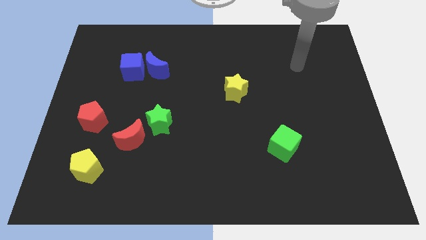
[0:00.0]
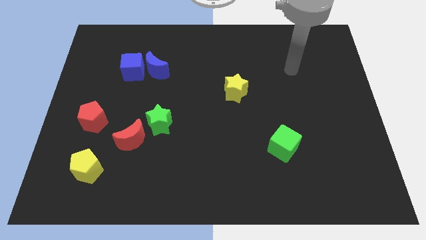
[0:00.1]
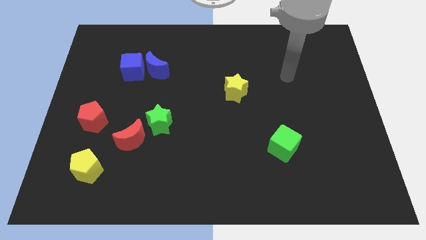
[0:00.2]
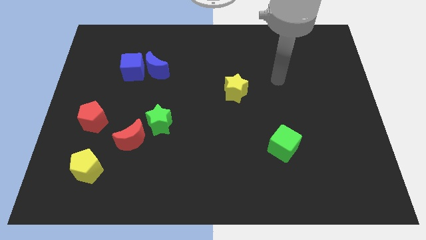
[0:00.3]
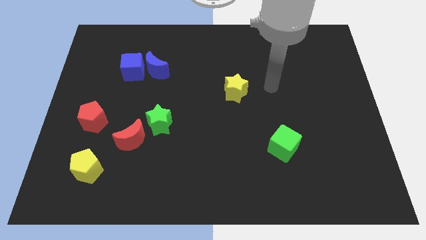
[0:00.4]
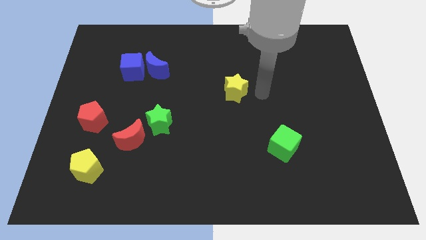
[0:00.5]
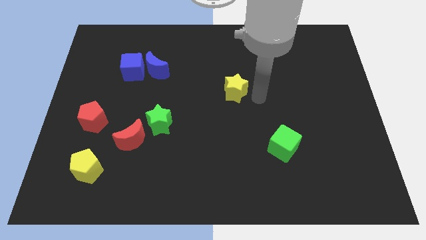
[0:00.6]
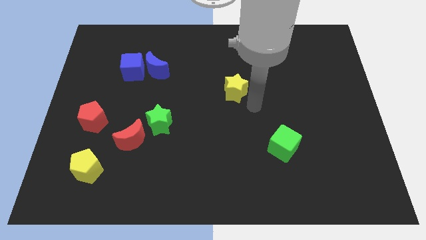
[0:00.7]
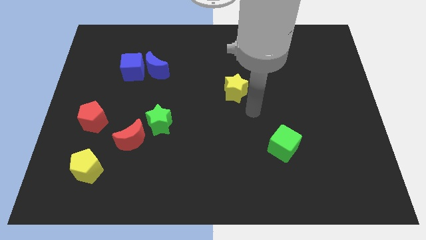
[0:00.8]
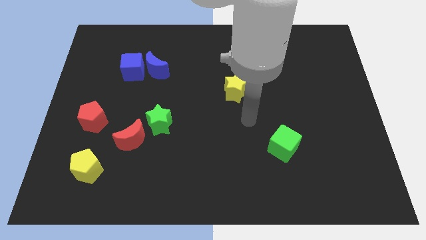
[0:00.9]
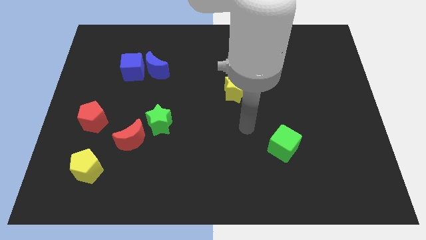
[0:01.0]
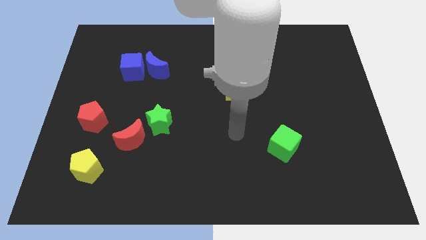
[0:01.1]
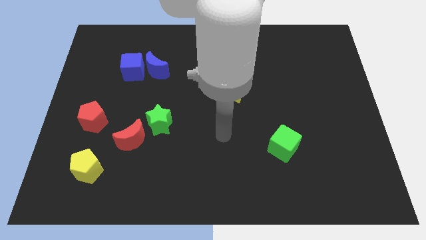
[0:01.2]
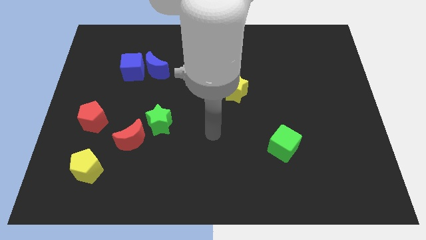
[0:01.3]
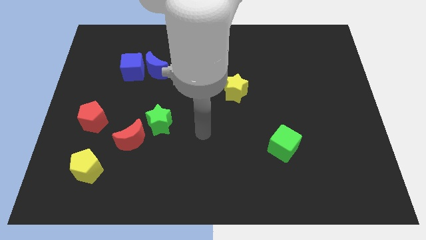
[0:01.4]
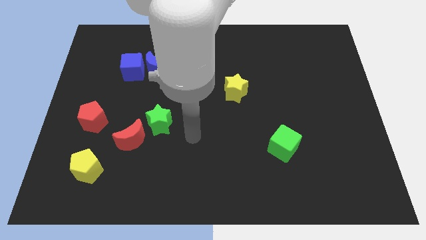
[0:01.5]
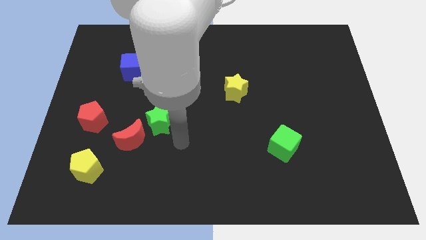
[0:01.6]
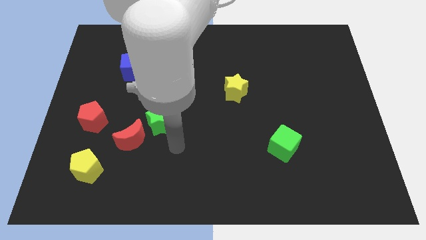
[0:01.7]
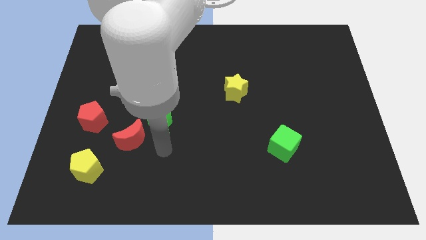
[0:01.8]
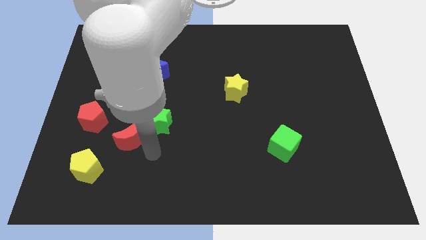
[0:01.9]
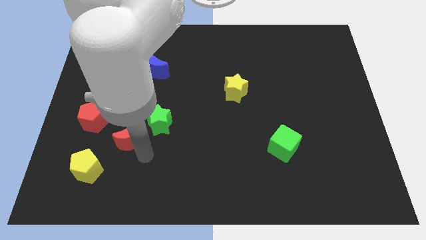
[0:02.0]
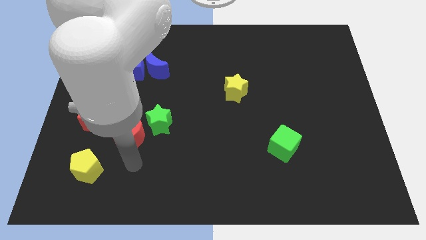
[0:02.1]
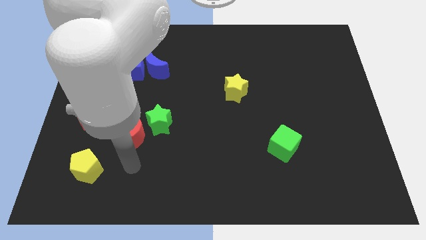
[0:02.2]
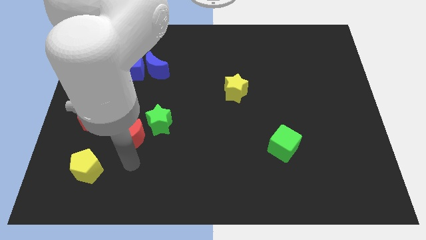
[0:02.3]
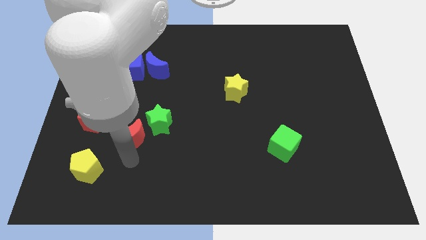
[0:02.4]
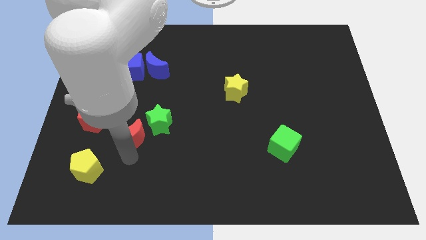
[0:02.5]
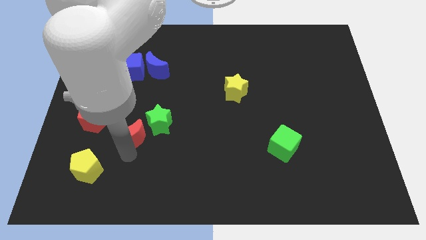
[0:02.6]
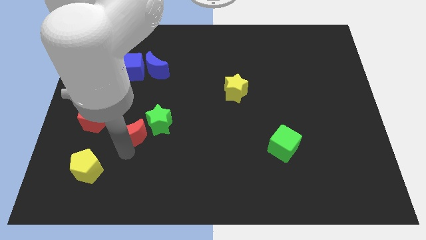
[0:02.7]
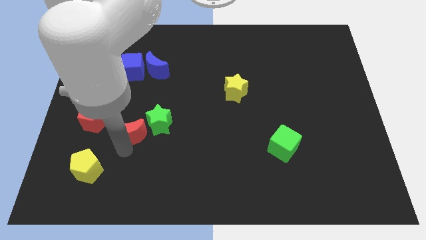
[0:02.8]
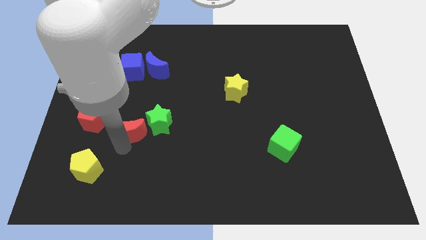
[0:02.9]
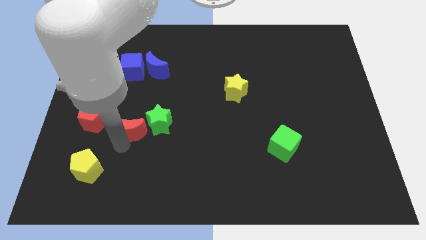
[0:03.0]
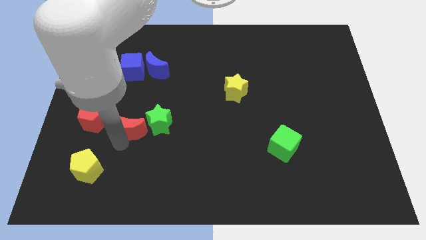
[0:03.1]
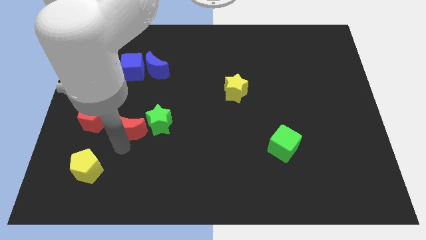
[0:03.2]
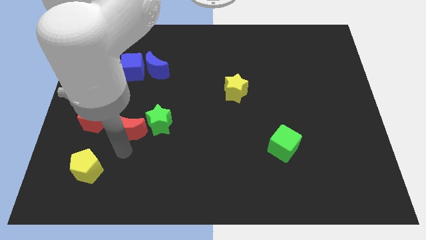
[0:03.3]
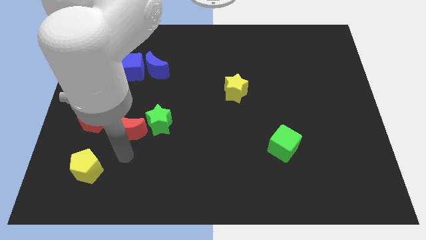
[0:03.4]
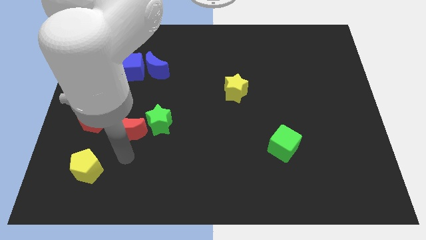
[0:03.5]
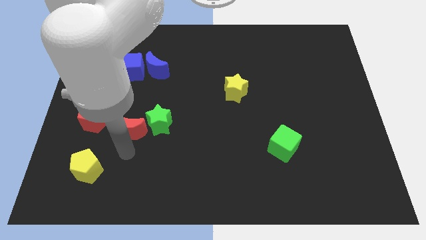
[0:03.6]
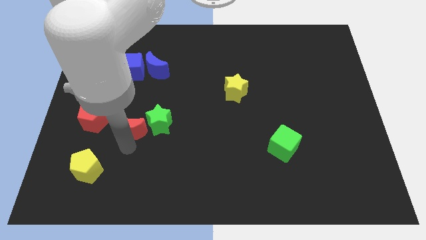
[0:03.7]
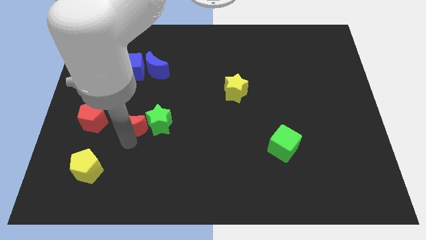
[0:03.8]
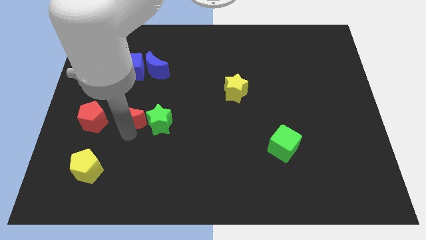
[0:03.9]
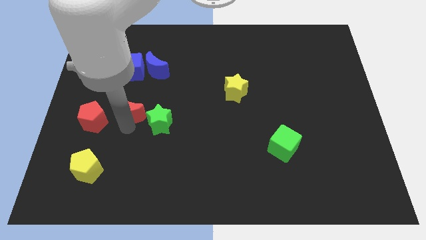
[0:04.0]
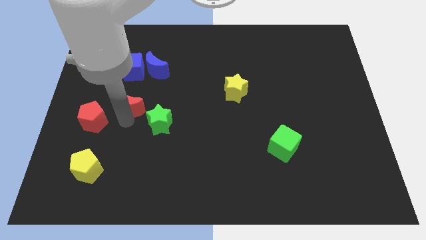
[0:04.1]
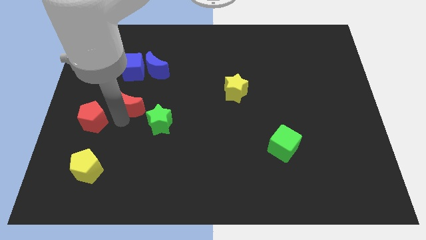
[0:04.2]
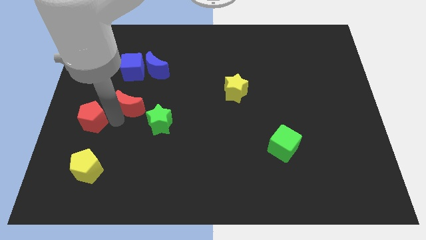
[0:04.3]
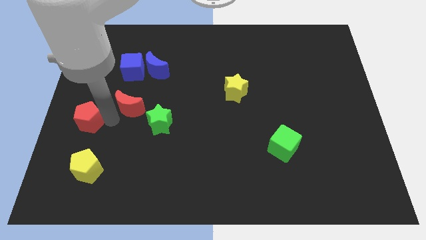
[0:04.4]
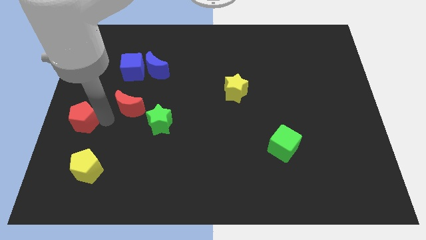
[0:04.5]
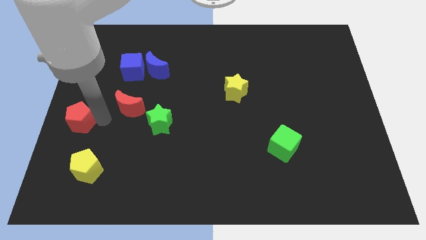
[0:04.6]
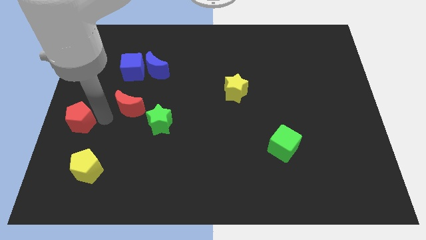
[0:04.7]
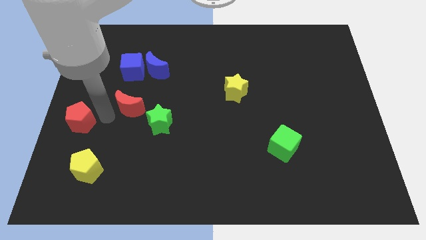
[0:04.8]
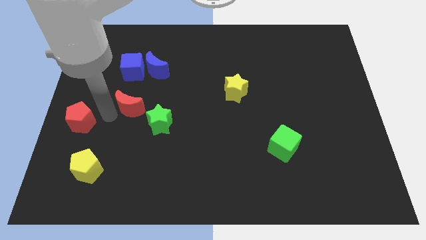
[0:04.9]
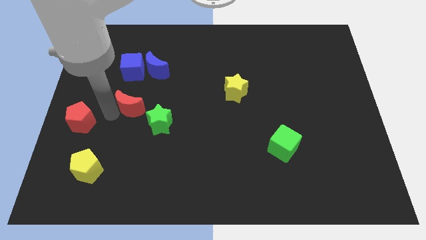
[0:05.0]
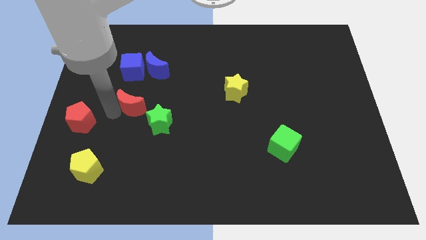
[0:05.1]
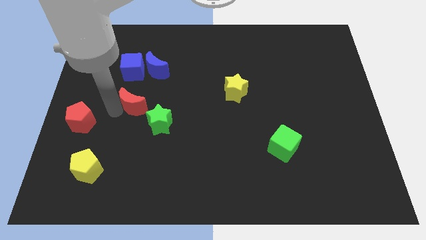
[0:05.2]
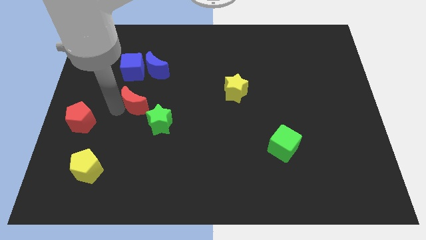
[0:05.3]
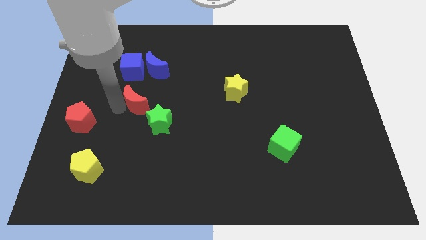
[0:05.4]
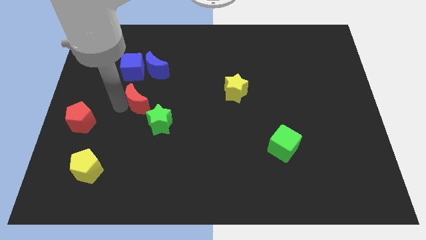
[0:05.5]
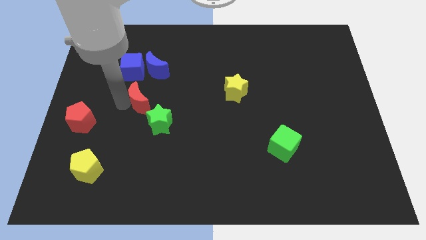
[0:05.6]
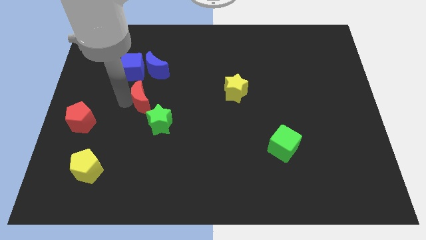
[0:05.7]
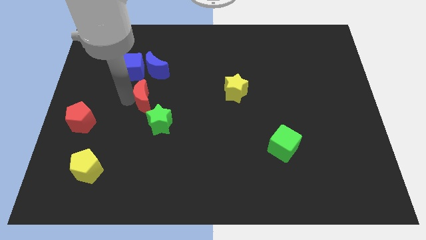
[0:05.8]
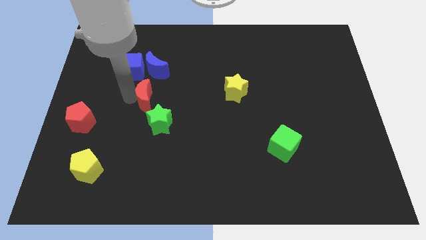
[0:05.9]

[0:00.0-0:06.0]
slide the red moon slightly upwards and then right

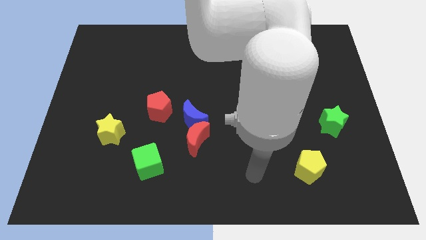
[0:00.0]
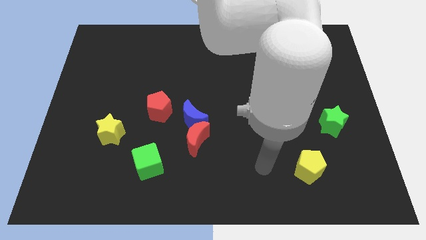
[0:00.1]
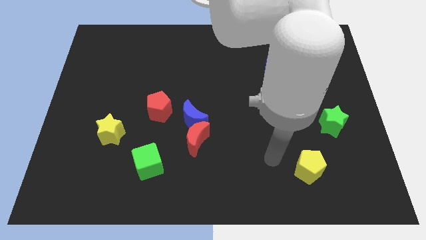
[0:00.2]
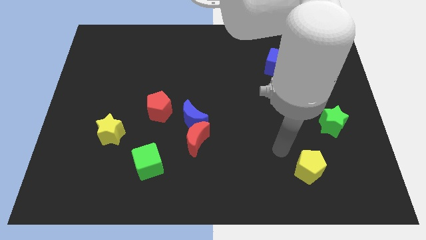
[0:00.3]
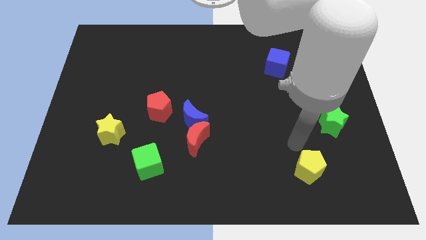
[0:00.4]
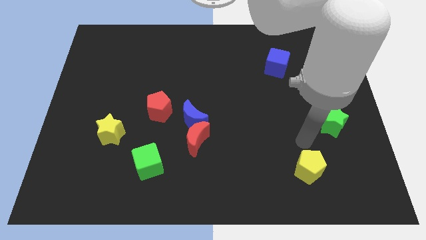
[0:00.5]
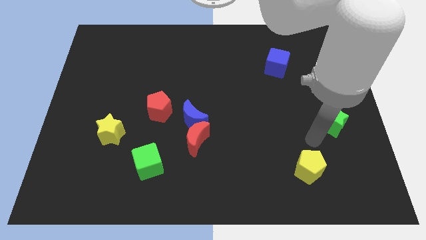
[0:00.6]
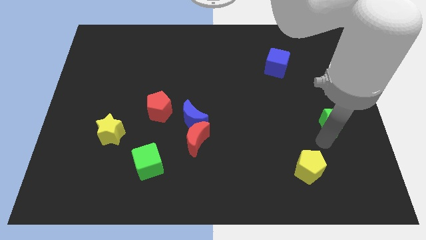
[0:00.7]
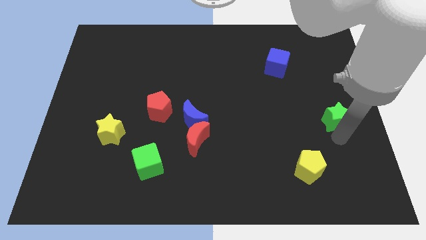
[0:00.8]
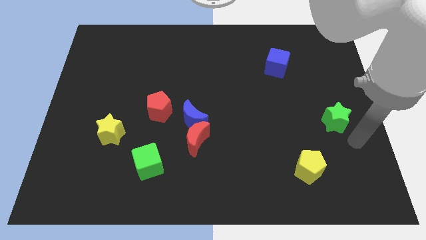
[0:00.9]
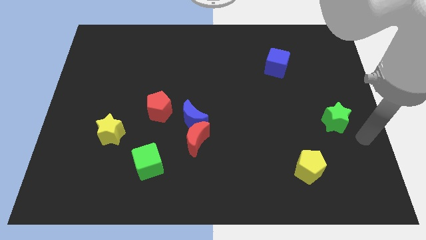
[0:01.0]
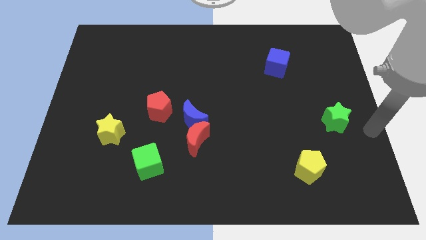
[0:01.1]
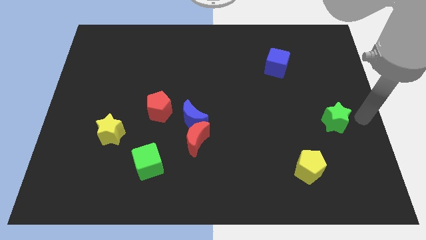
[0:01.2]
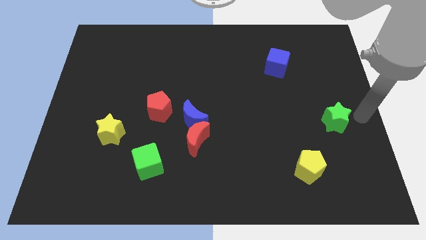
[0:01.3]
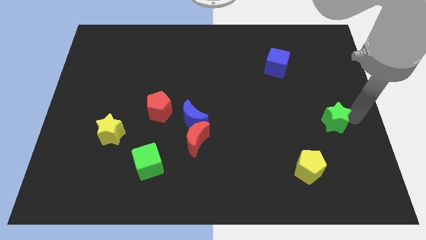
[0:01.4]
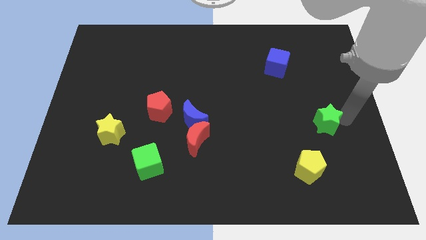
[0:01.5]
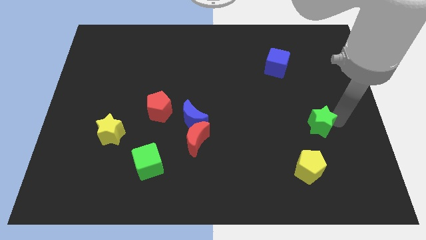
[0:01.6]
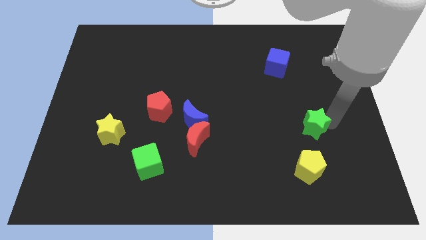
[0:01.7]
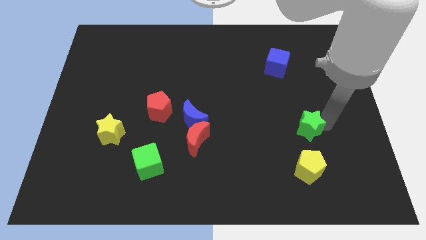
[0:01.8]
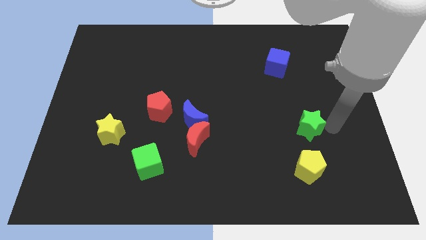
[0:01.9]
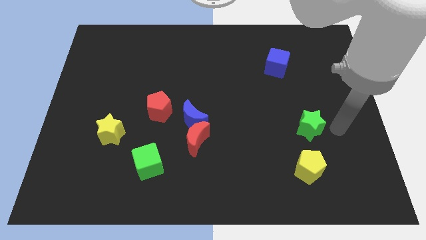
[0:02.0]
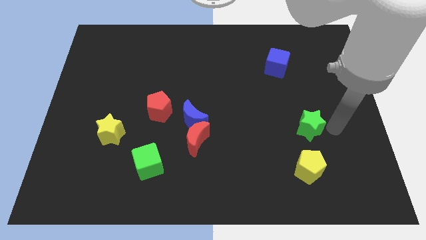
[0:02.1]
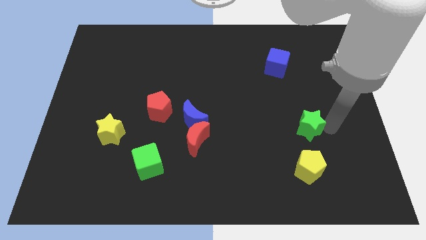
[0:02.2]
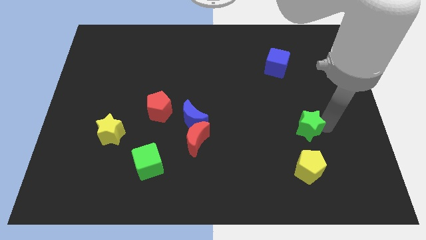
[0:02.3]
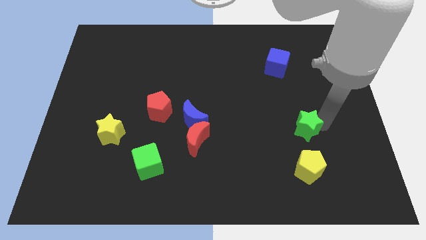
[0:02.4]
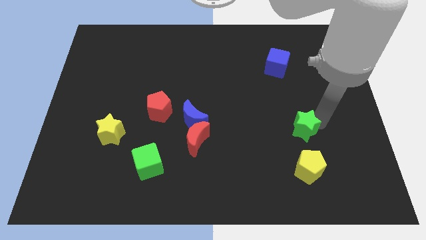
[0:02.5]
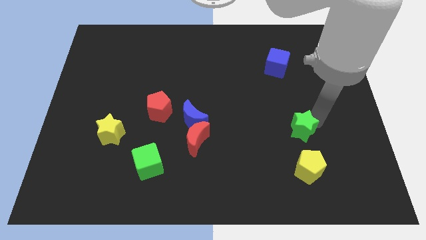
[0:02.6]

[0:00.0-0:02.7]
push the green star left a little bit
